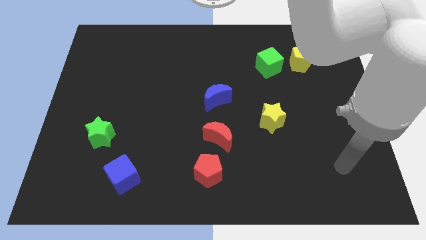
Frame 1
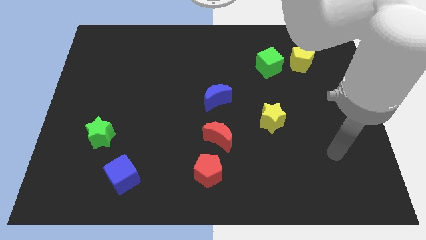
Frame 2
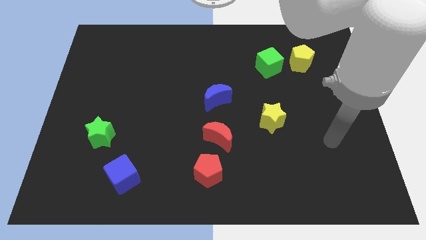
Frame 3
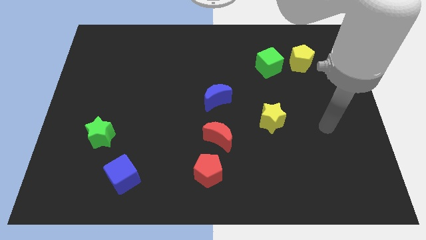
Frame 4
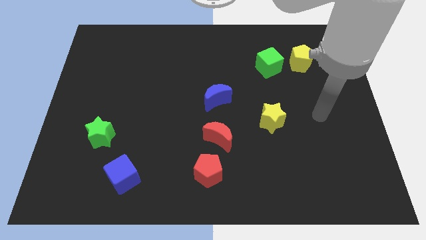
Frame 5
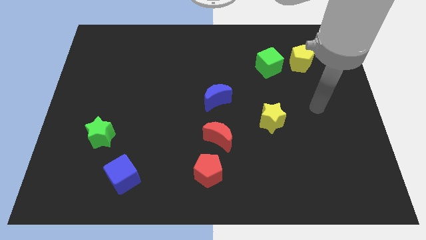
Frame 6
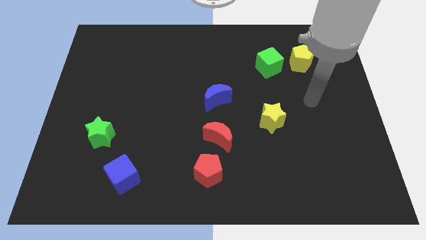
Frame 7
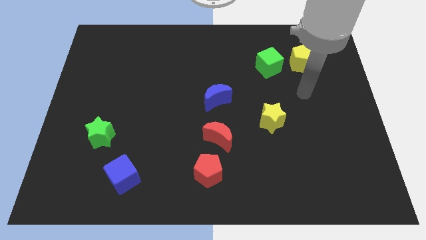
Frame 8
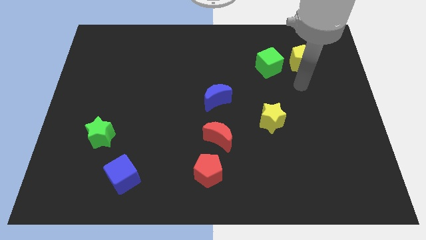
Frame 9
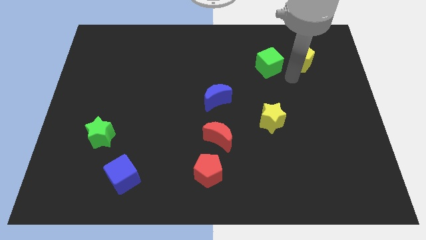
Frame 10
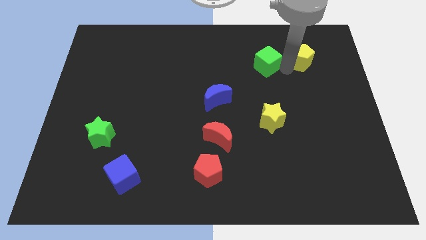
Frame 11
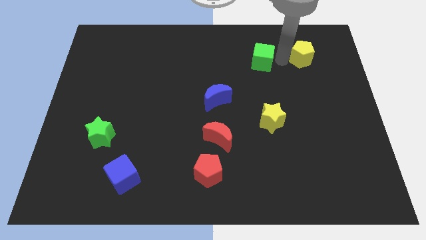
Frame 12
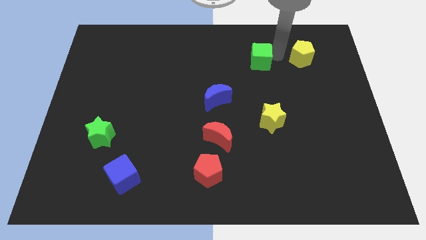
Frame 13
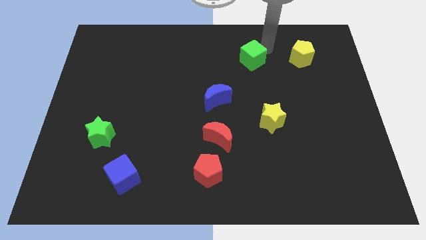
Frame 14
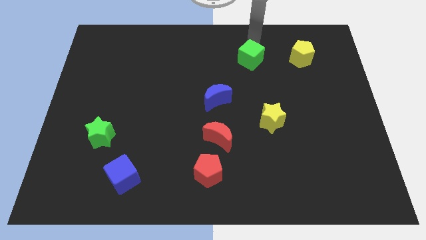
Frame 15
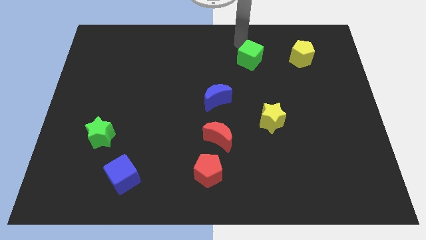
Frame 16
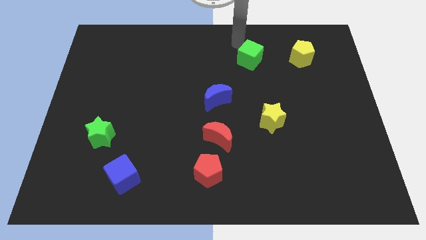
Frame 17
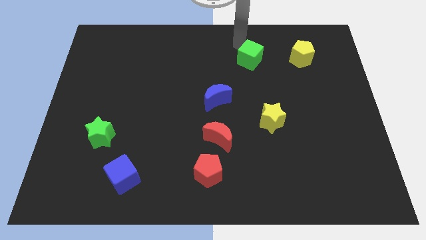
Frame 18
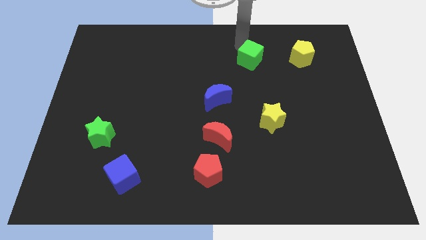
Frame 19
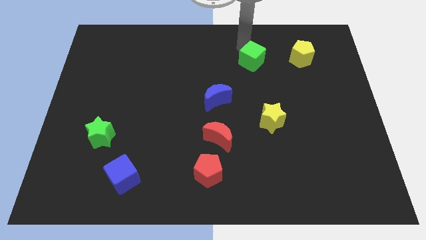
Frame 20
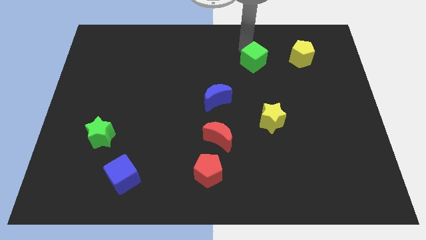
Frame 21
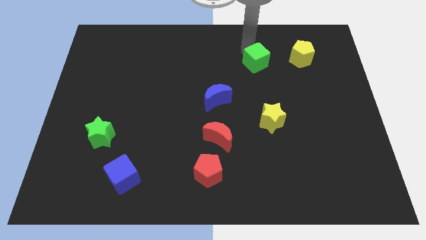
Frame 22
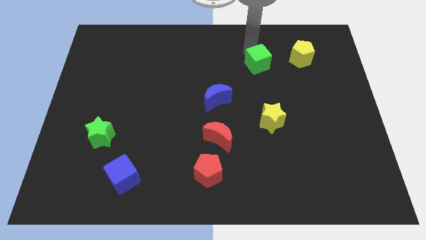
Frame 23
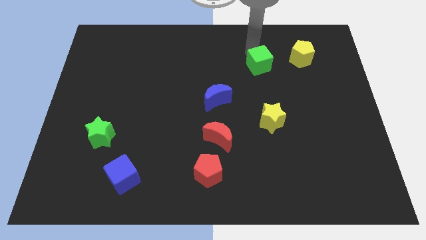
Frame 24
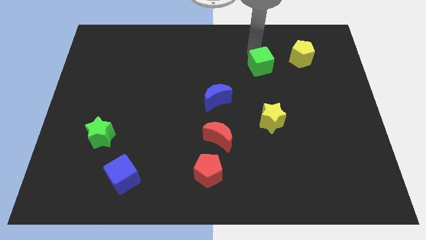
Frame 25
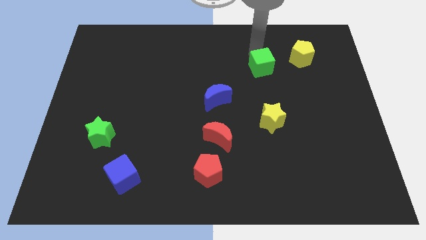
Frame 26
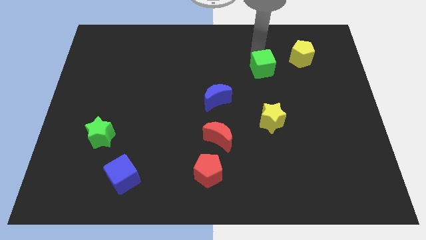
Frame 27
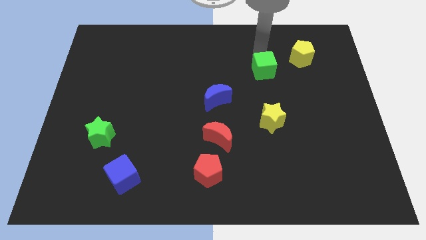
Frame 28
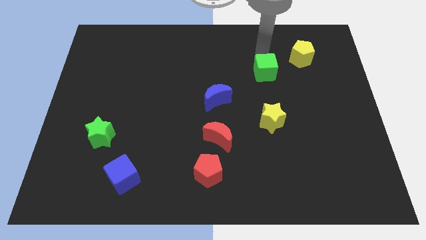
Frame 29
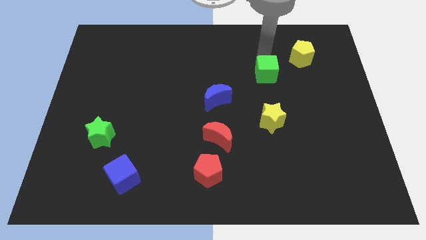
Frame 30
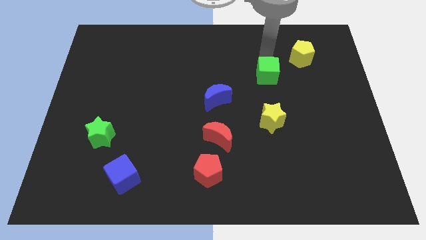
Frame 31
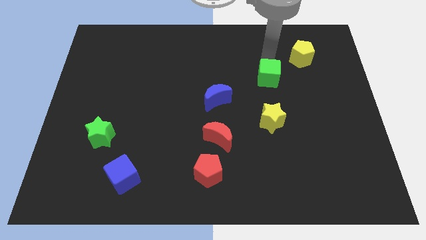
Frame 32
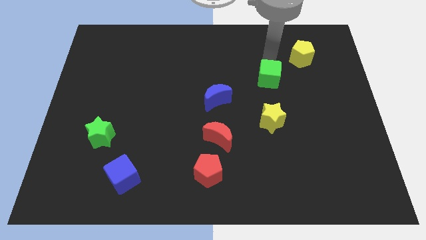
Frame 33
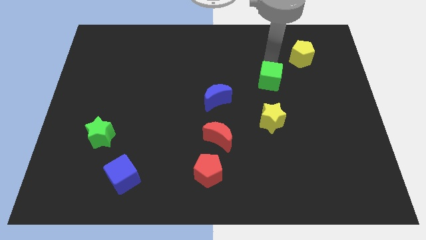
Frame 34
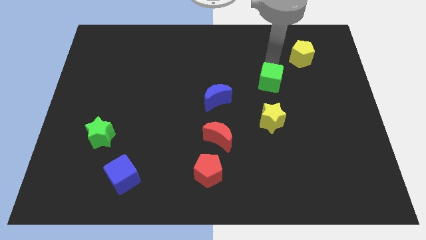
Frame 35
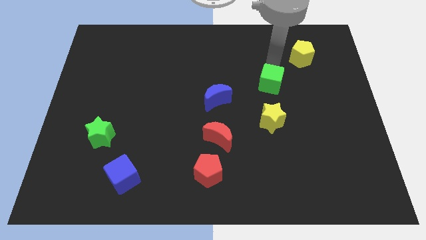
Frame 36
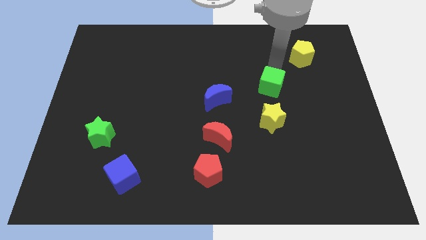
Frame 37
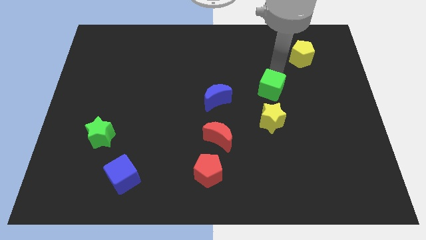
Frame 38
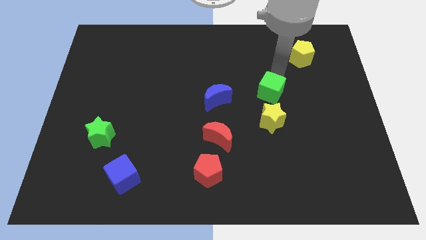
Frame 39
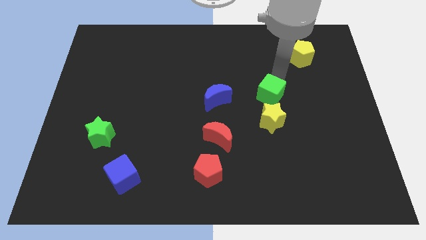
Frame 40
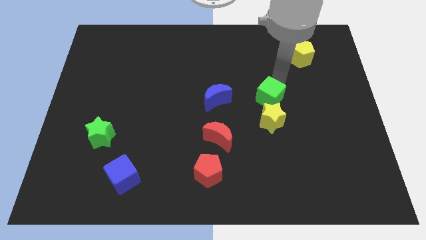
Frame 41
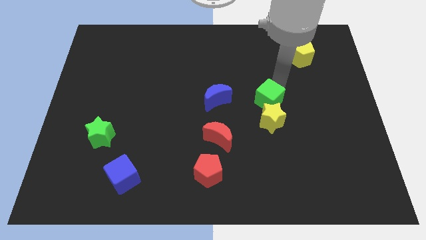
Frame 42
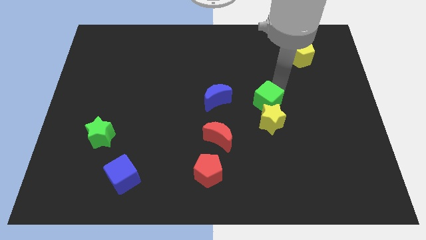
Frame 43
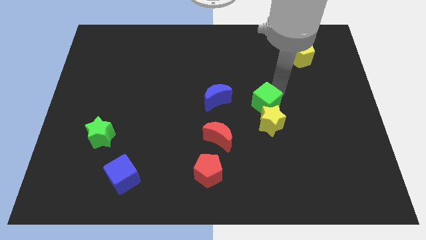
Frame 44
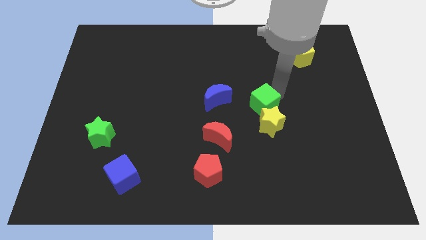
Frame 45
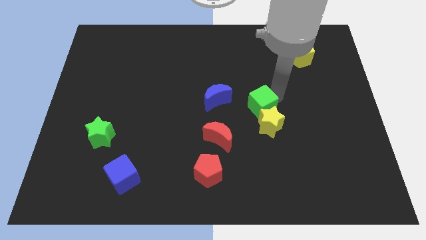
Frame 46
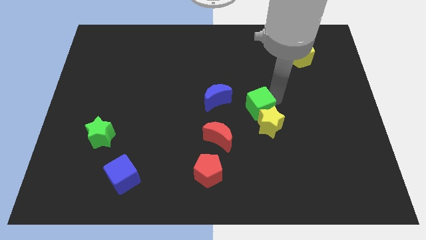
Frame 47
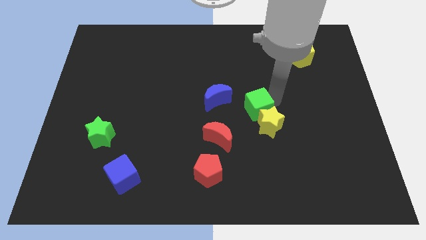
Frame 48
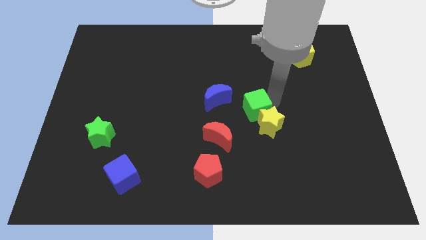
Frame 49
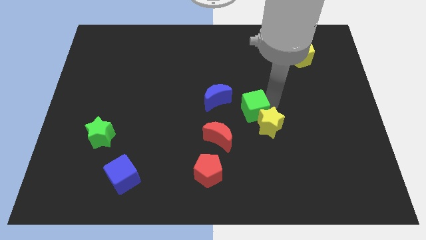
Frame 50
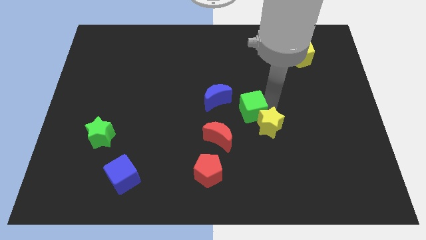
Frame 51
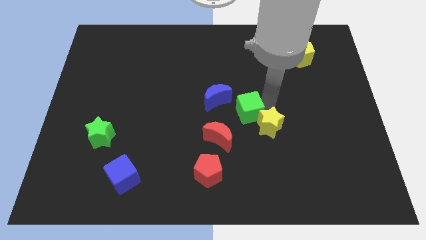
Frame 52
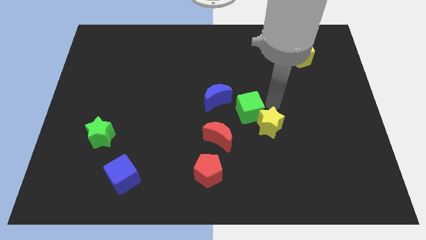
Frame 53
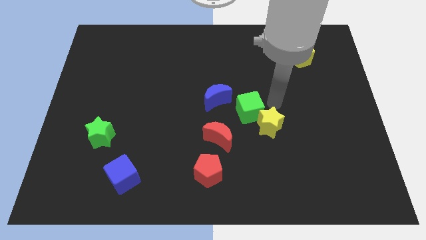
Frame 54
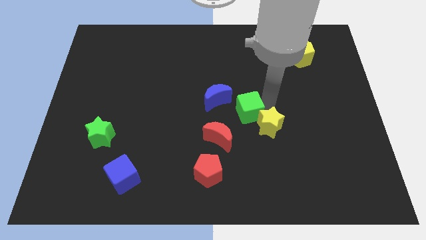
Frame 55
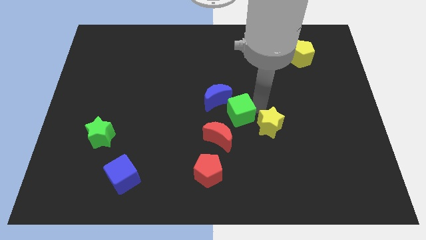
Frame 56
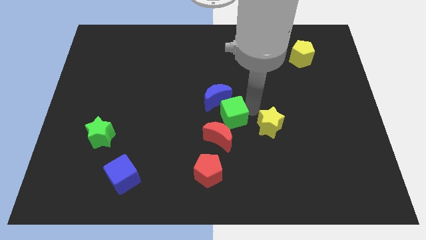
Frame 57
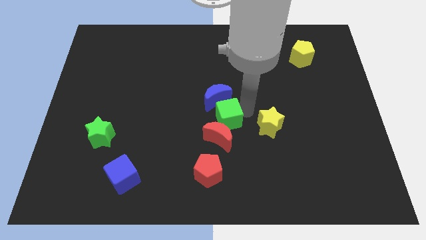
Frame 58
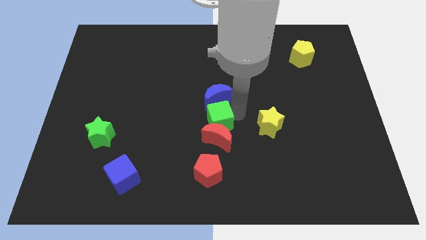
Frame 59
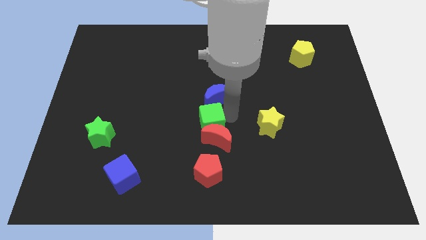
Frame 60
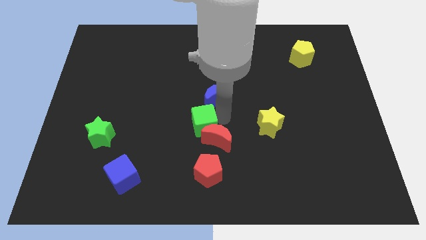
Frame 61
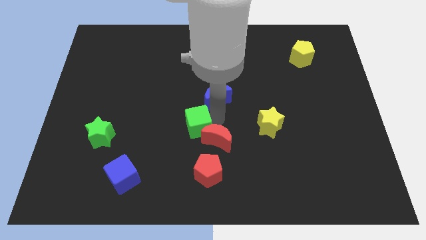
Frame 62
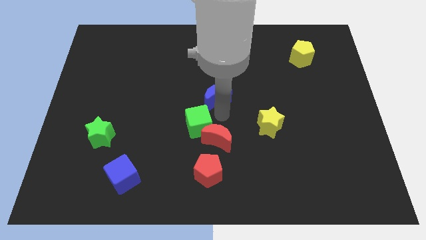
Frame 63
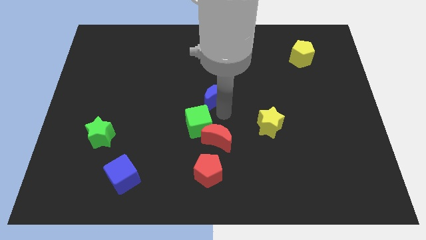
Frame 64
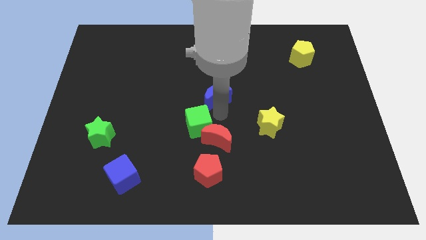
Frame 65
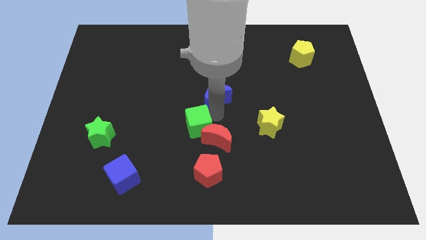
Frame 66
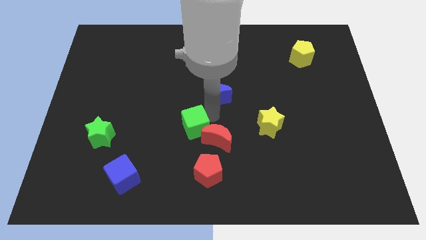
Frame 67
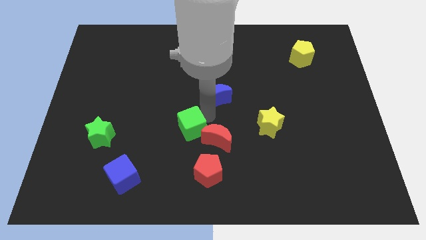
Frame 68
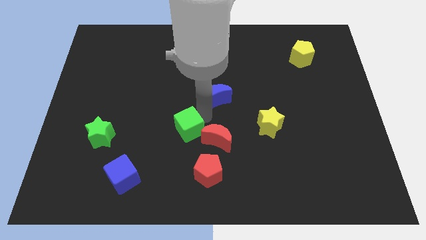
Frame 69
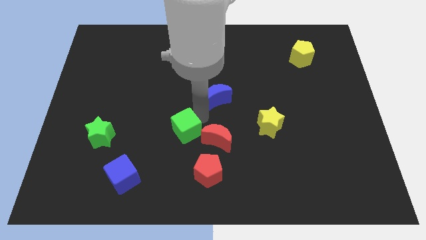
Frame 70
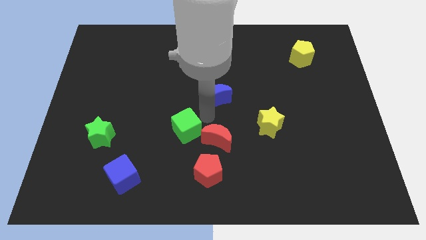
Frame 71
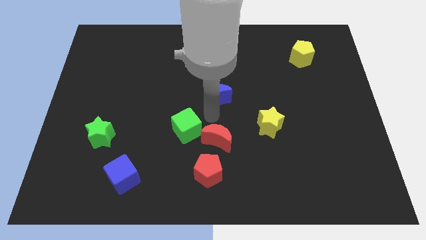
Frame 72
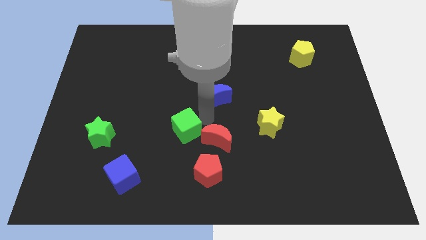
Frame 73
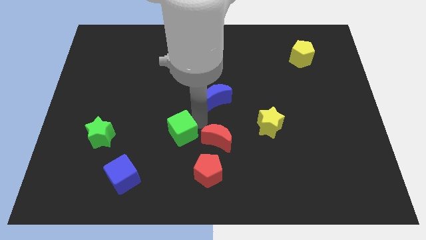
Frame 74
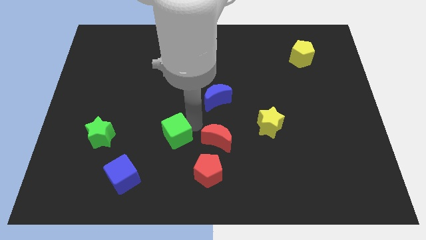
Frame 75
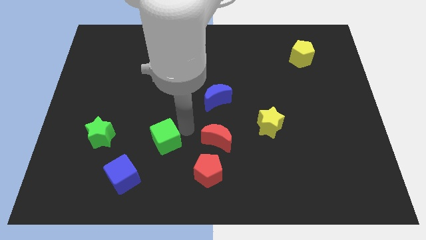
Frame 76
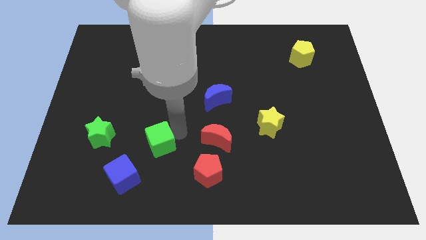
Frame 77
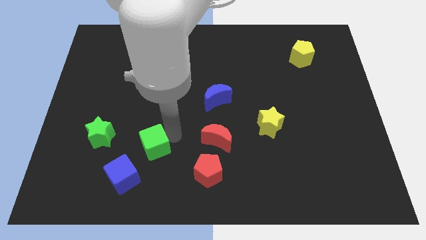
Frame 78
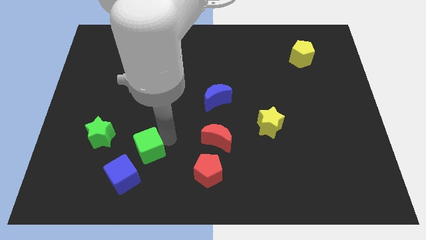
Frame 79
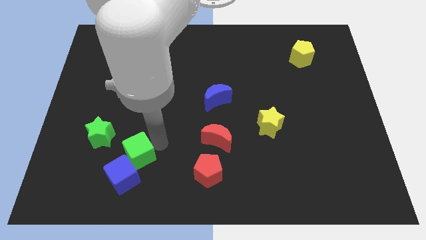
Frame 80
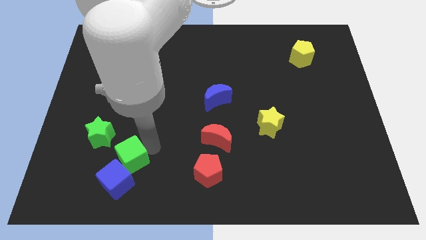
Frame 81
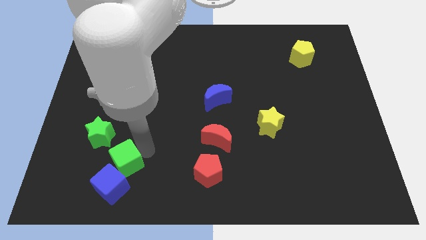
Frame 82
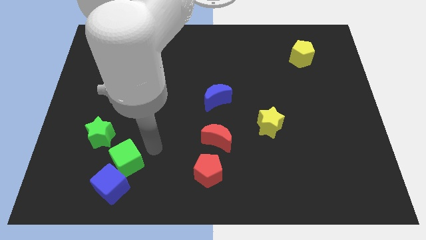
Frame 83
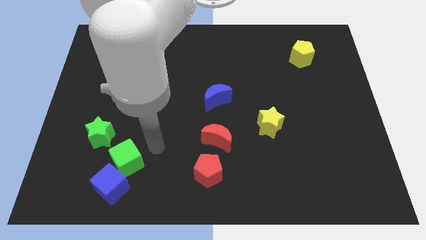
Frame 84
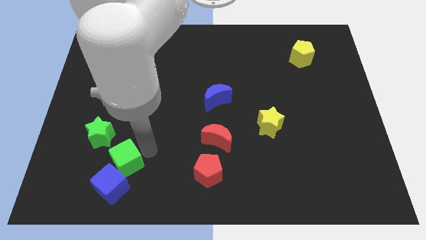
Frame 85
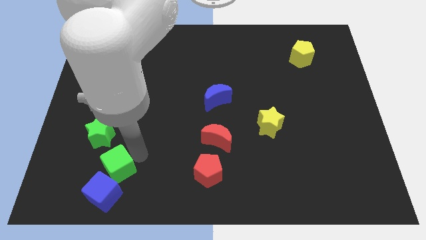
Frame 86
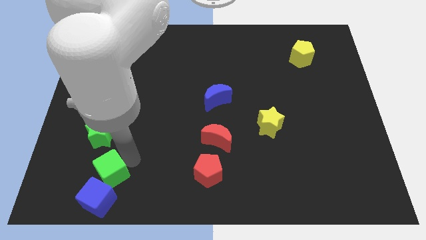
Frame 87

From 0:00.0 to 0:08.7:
slide the green cube to the bottom side of the green star
